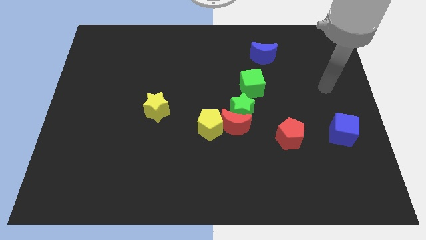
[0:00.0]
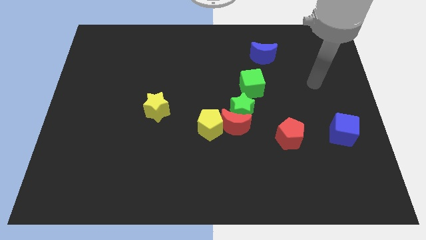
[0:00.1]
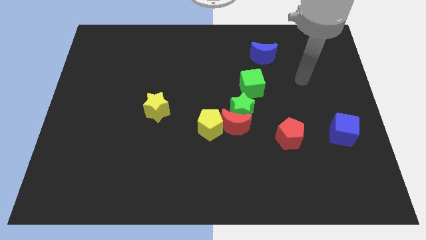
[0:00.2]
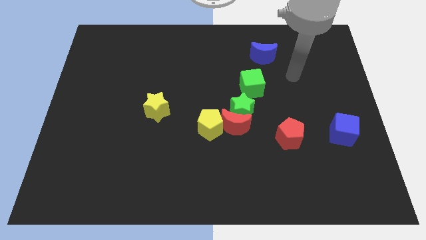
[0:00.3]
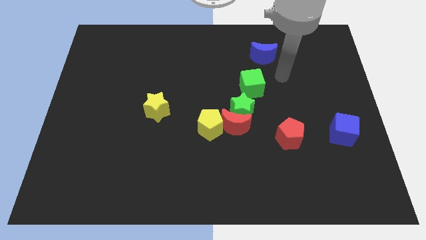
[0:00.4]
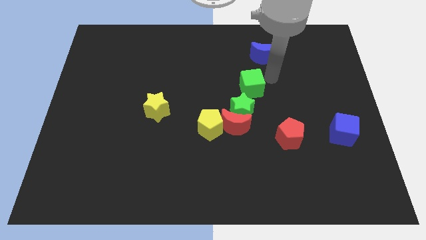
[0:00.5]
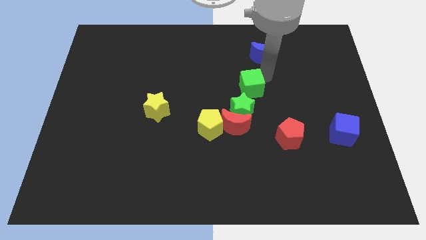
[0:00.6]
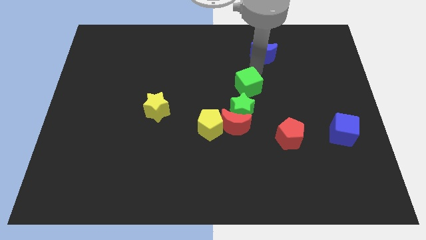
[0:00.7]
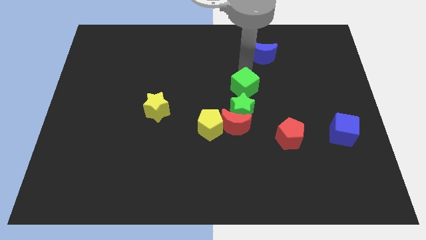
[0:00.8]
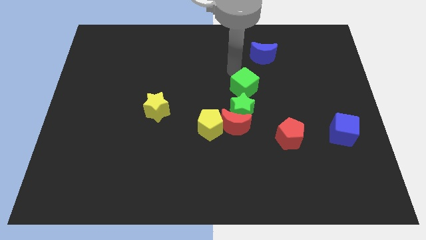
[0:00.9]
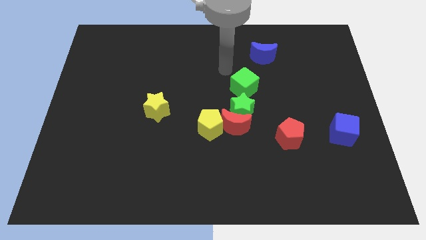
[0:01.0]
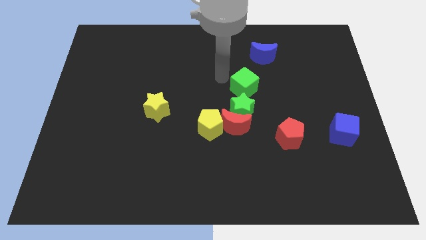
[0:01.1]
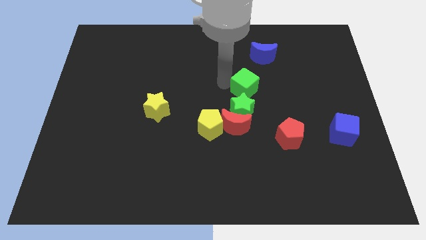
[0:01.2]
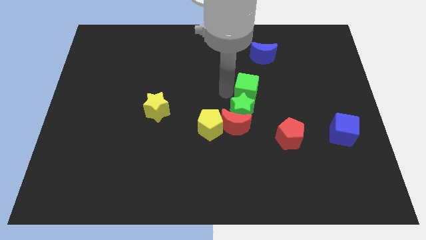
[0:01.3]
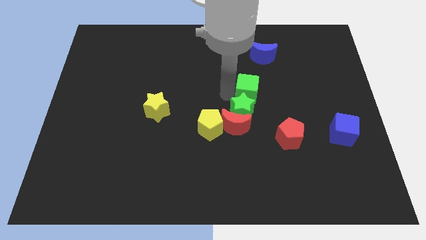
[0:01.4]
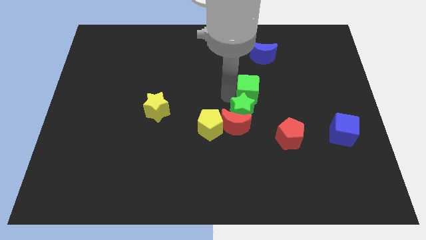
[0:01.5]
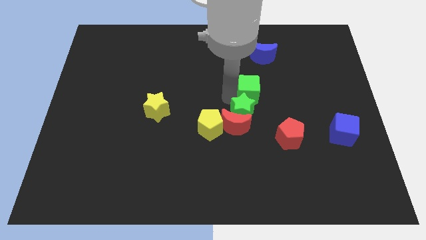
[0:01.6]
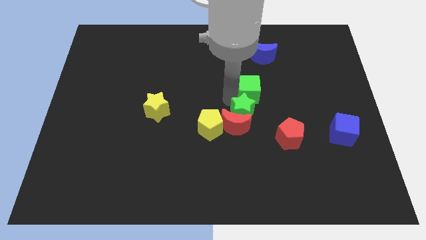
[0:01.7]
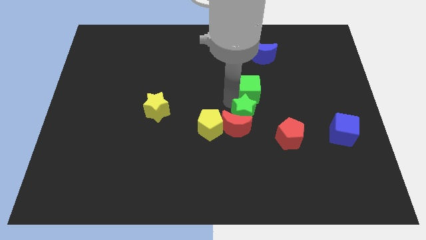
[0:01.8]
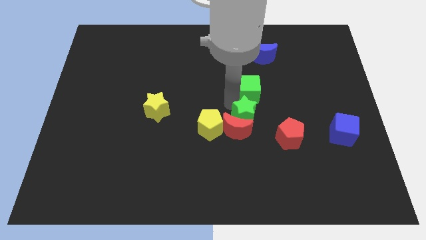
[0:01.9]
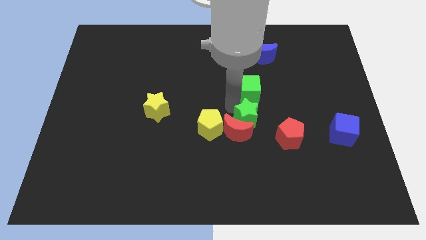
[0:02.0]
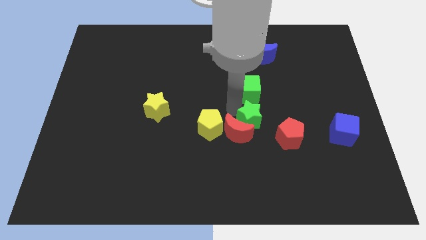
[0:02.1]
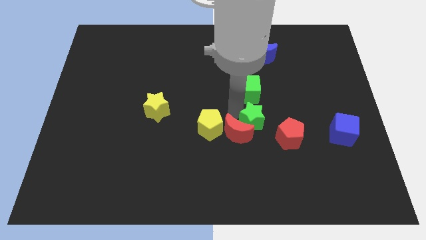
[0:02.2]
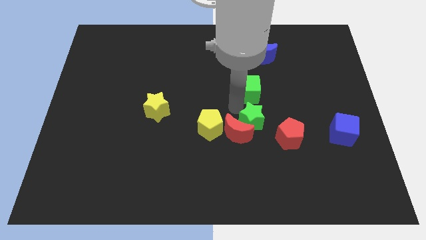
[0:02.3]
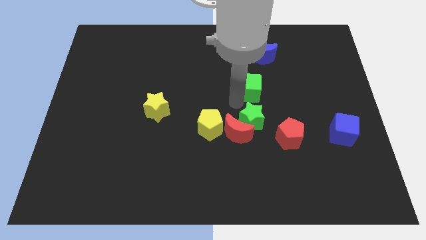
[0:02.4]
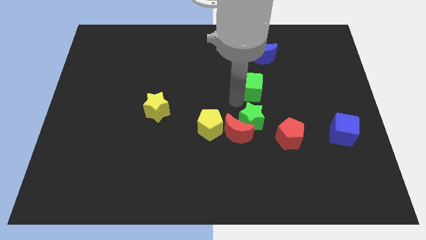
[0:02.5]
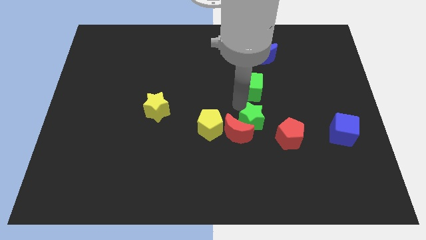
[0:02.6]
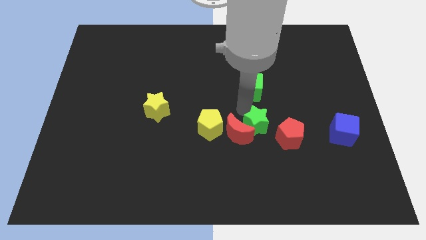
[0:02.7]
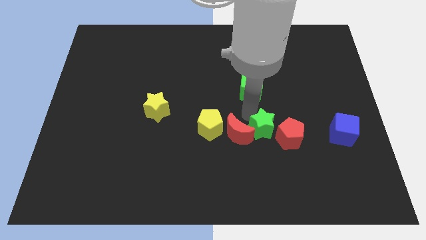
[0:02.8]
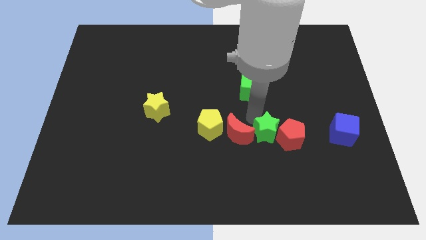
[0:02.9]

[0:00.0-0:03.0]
slide the green star down and to the right a bit

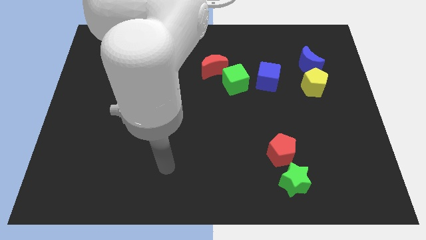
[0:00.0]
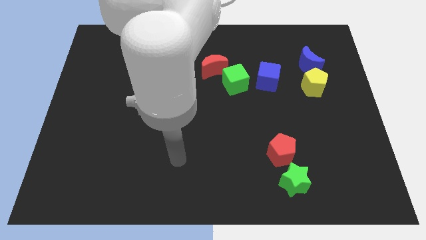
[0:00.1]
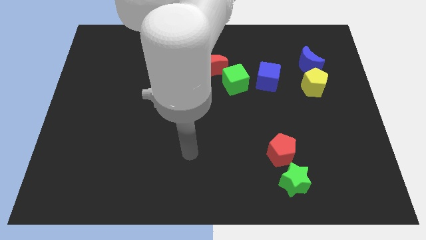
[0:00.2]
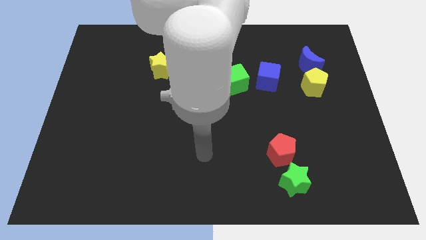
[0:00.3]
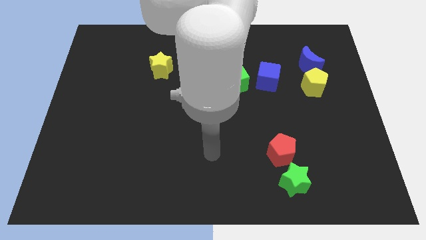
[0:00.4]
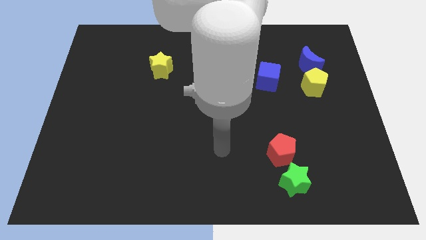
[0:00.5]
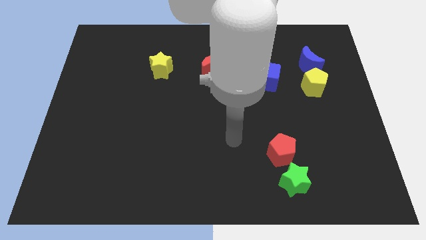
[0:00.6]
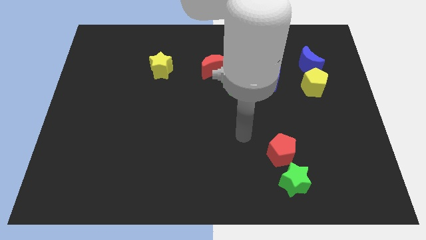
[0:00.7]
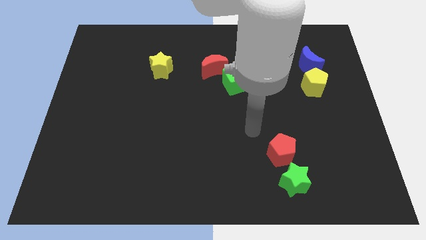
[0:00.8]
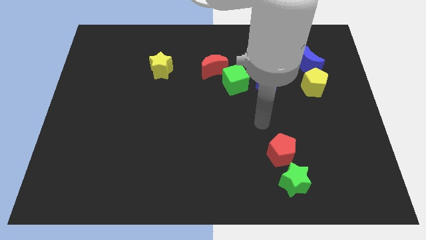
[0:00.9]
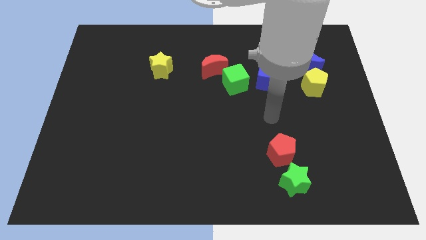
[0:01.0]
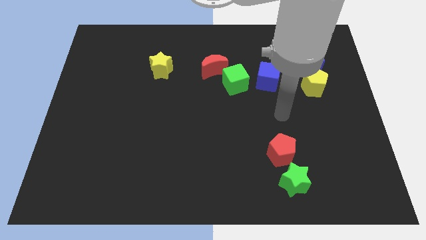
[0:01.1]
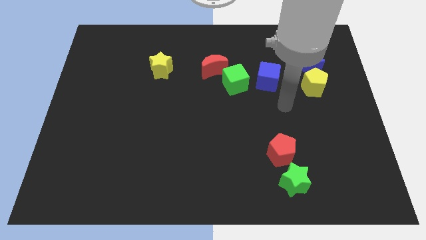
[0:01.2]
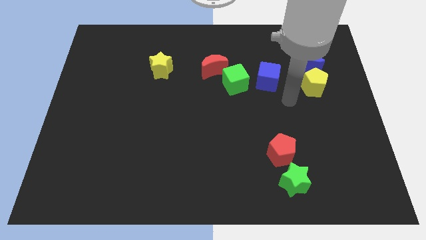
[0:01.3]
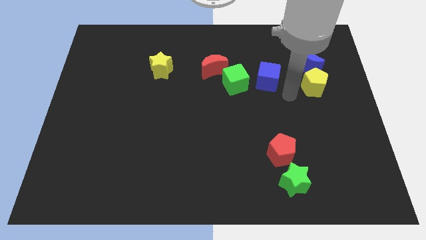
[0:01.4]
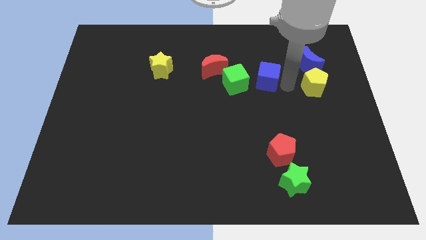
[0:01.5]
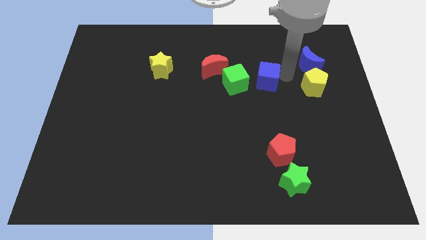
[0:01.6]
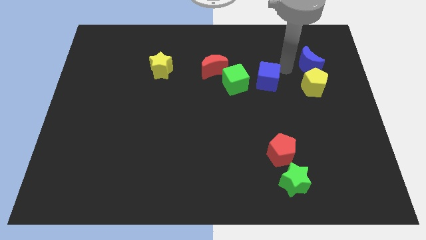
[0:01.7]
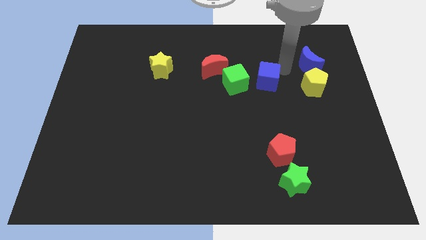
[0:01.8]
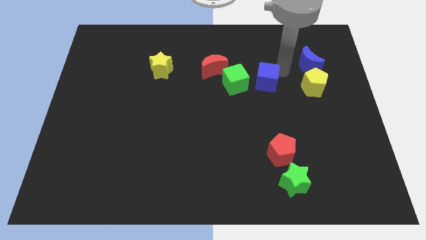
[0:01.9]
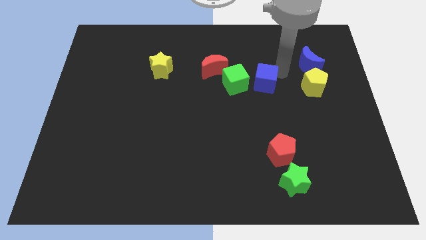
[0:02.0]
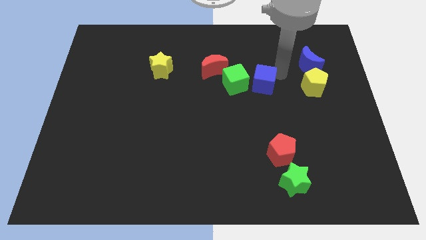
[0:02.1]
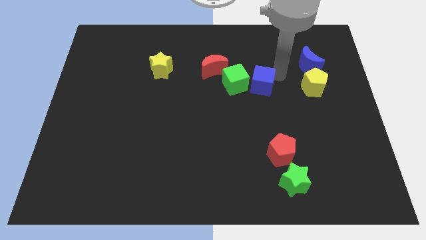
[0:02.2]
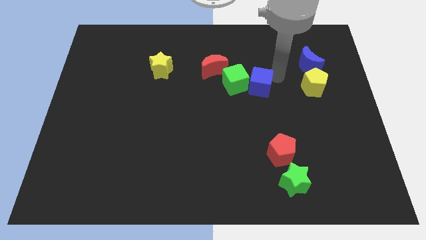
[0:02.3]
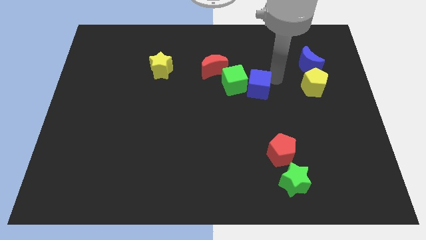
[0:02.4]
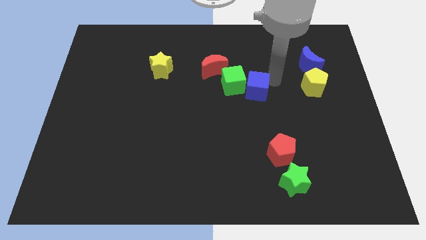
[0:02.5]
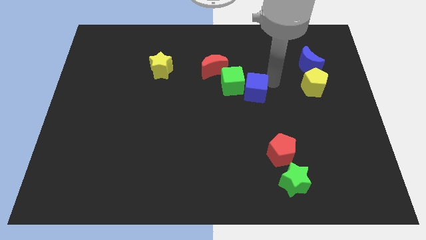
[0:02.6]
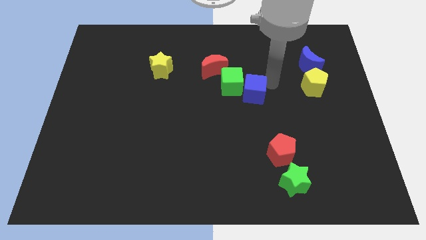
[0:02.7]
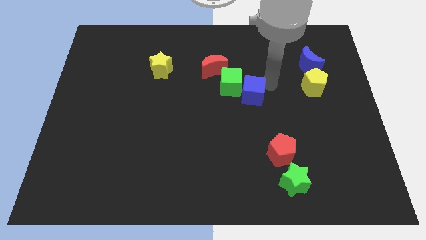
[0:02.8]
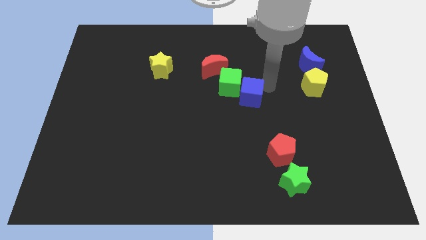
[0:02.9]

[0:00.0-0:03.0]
slightly move the blue cube diagonally down and left

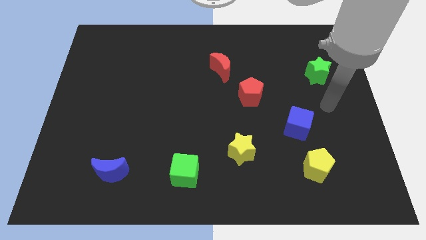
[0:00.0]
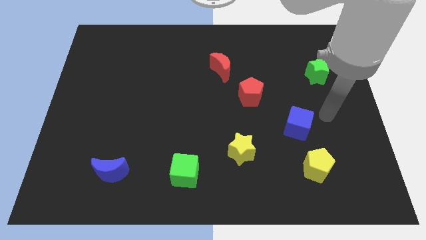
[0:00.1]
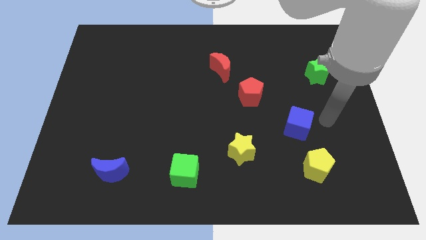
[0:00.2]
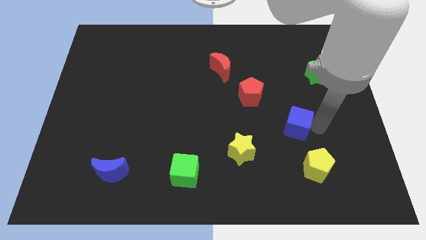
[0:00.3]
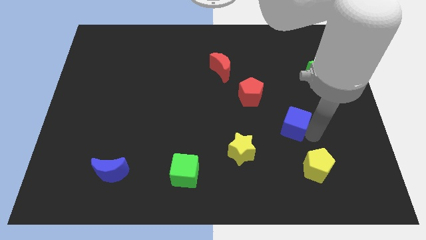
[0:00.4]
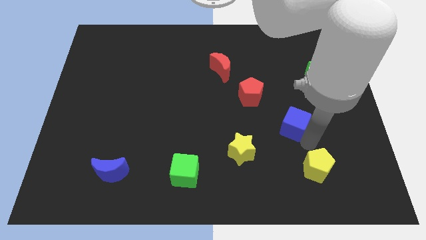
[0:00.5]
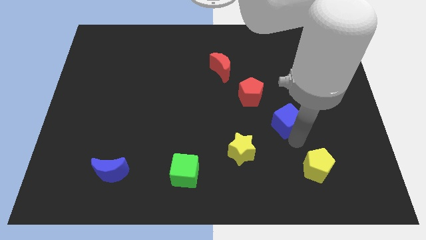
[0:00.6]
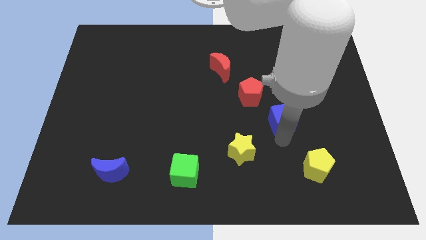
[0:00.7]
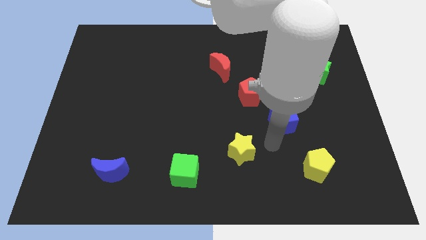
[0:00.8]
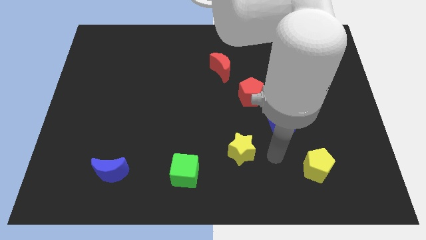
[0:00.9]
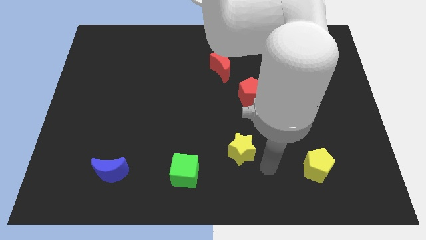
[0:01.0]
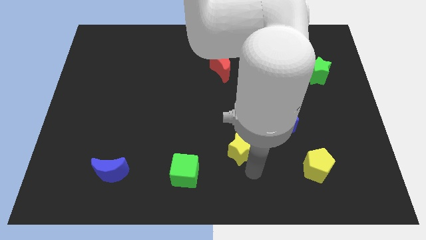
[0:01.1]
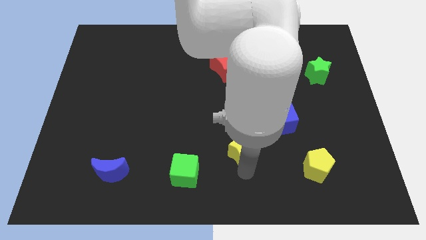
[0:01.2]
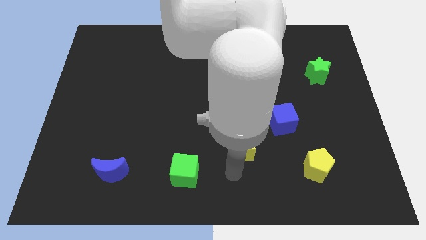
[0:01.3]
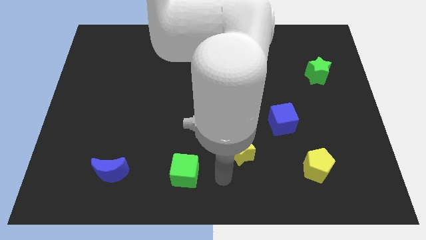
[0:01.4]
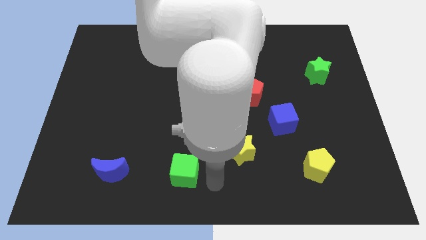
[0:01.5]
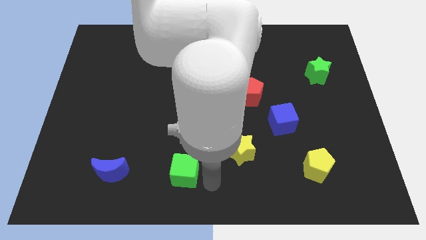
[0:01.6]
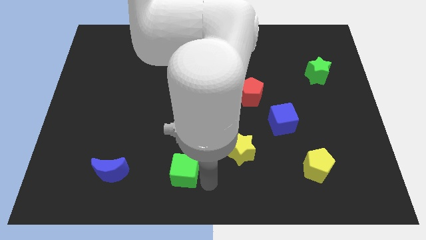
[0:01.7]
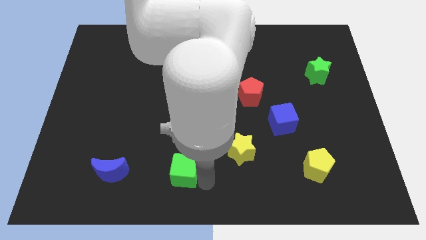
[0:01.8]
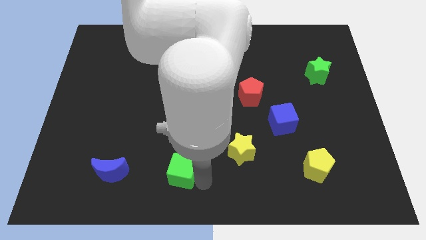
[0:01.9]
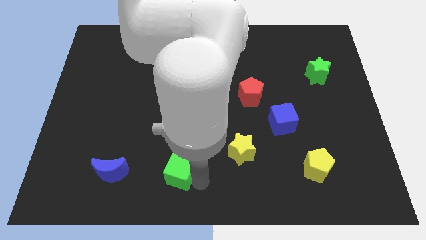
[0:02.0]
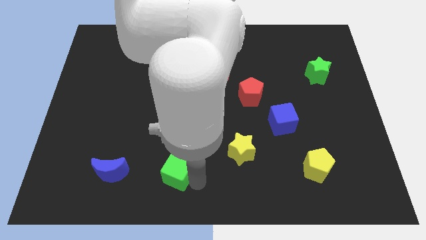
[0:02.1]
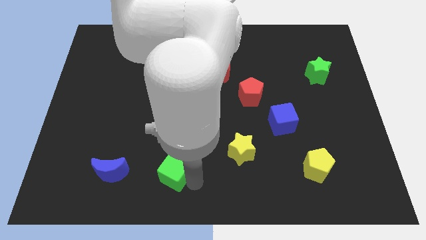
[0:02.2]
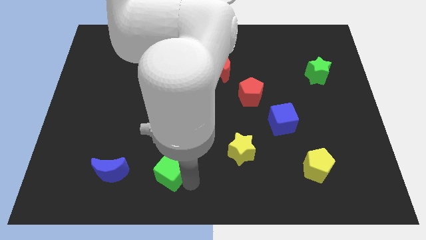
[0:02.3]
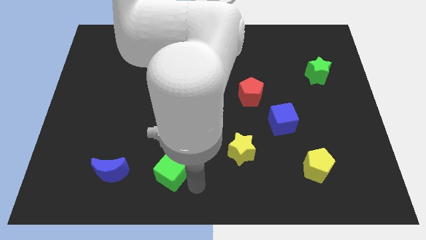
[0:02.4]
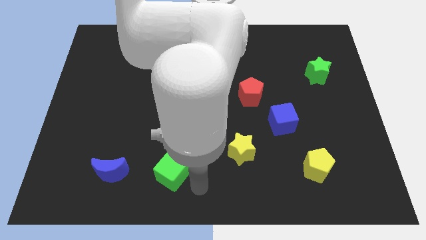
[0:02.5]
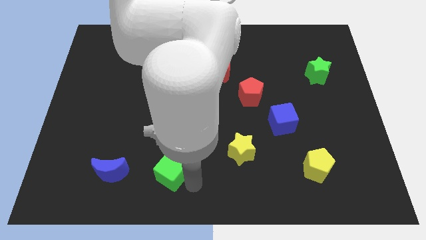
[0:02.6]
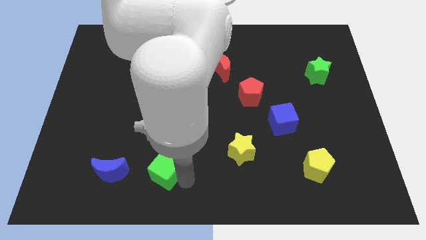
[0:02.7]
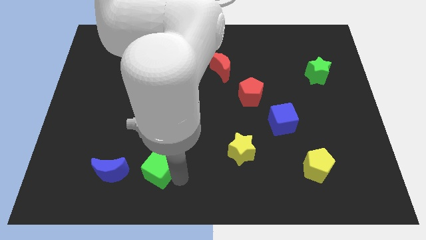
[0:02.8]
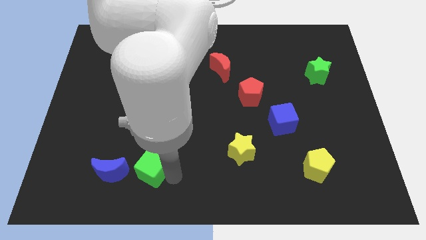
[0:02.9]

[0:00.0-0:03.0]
slightly push the green cube left
